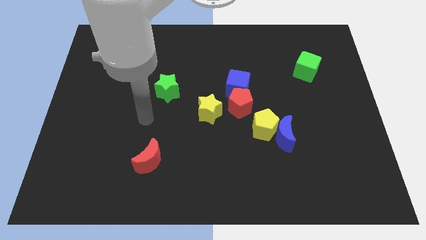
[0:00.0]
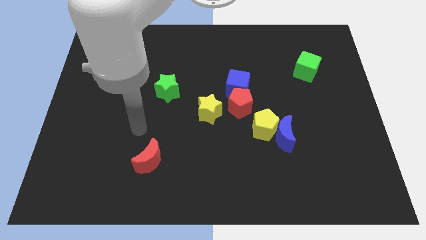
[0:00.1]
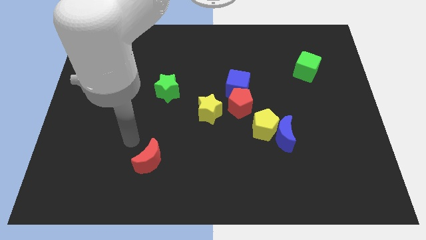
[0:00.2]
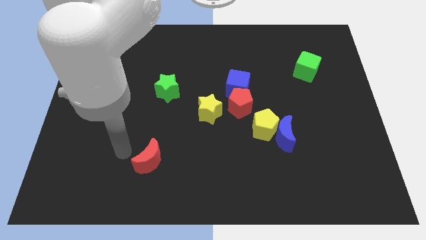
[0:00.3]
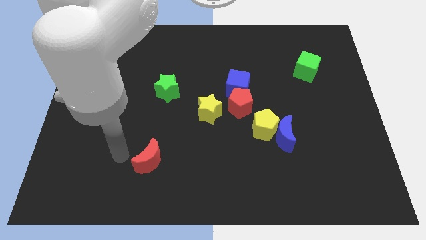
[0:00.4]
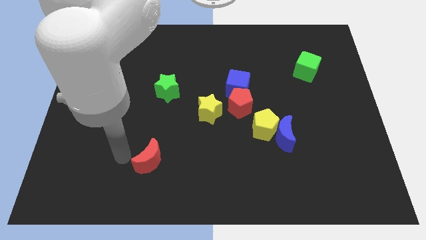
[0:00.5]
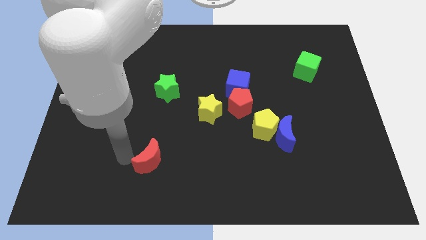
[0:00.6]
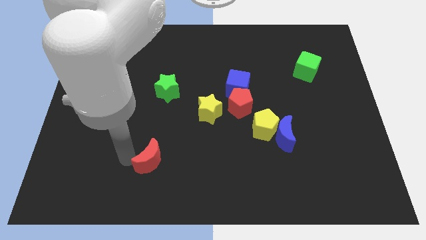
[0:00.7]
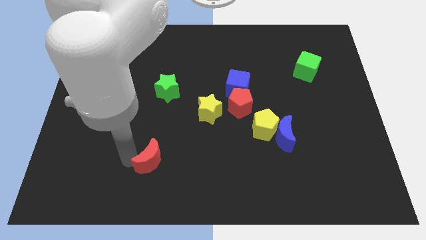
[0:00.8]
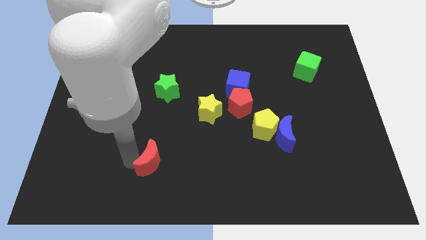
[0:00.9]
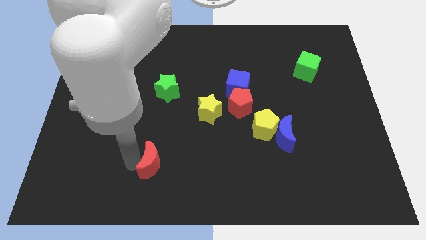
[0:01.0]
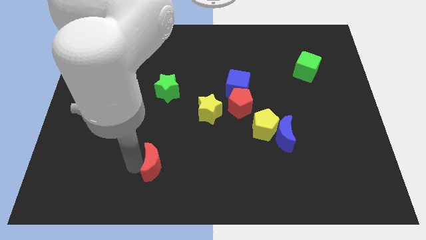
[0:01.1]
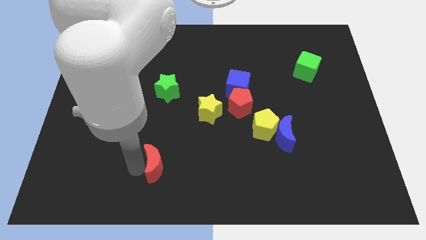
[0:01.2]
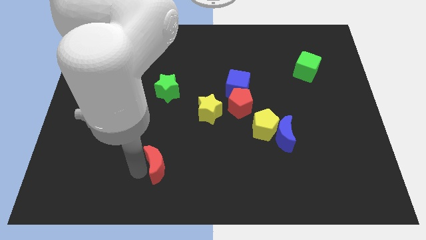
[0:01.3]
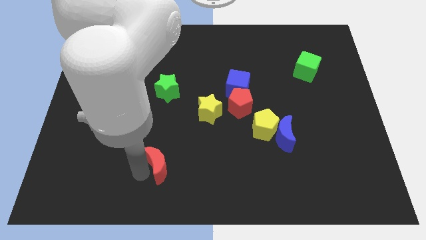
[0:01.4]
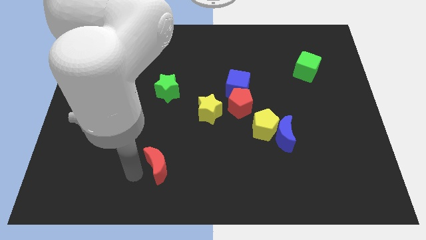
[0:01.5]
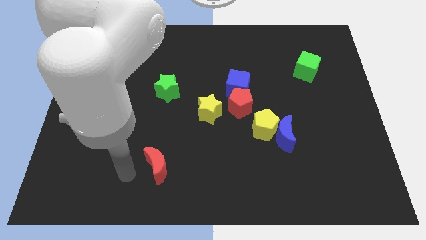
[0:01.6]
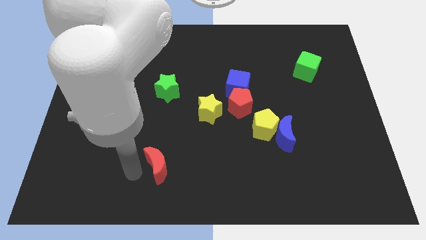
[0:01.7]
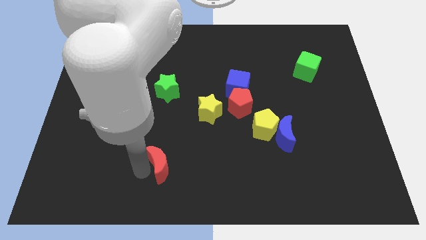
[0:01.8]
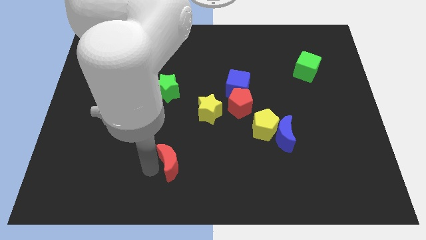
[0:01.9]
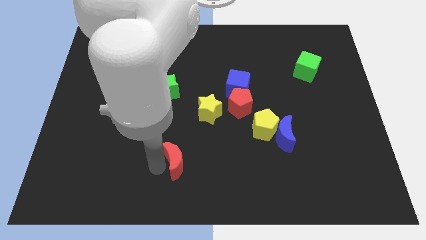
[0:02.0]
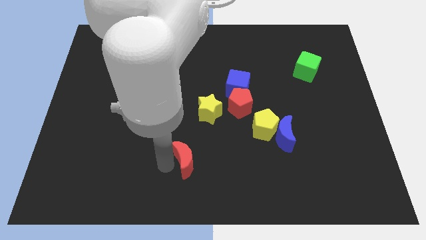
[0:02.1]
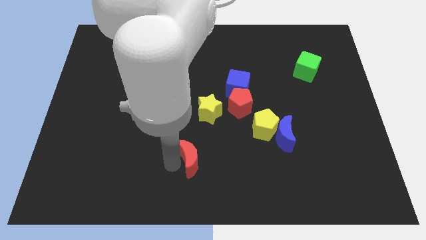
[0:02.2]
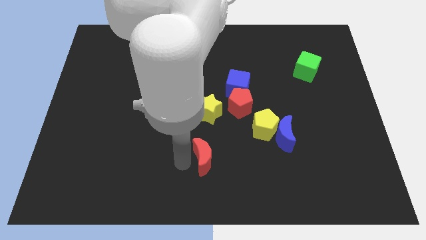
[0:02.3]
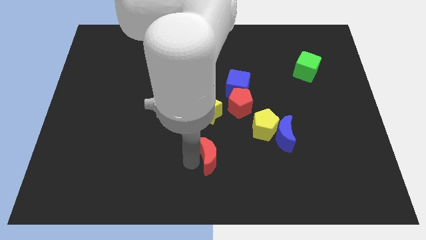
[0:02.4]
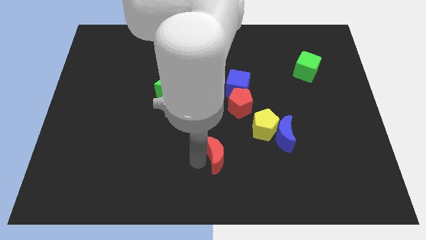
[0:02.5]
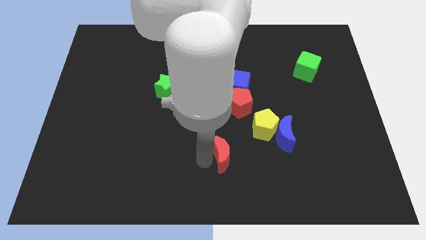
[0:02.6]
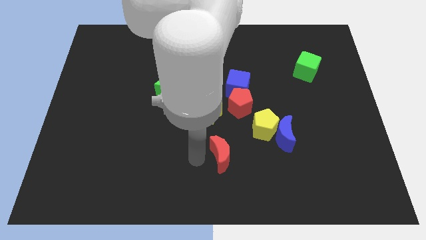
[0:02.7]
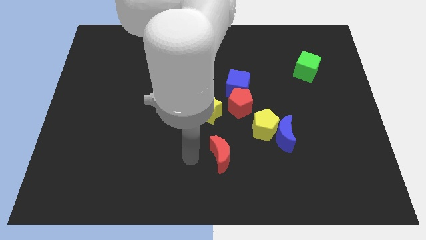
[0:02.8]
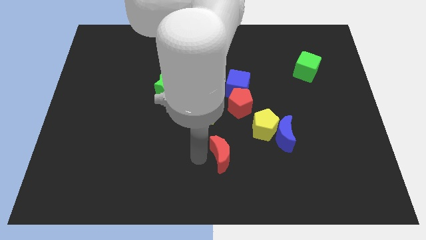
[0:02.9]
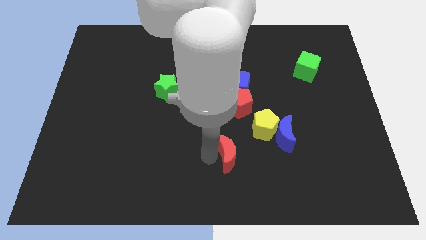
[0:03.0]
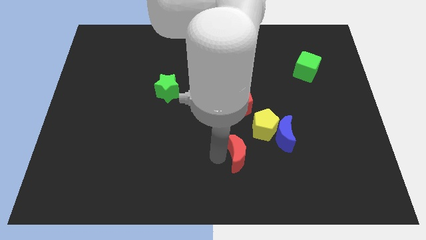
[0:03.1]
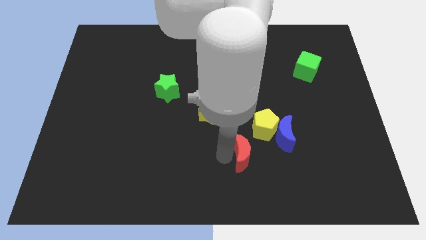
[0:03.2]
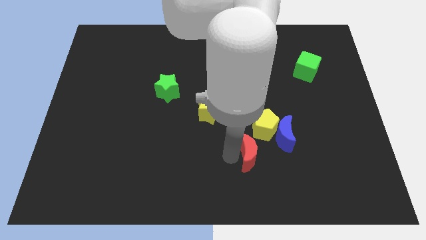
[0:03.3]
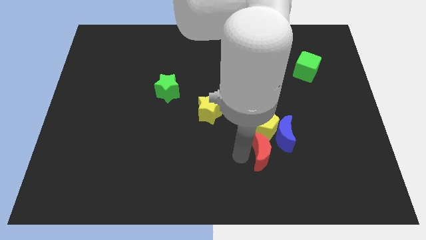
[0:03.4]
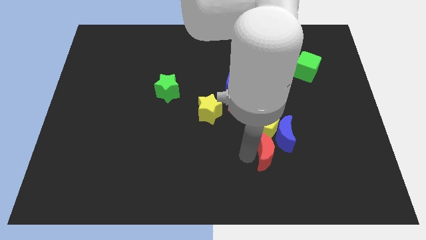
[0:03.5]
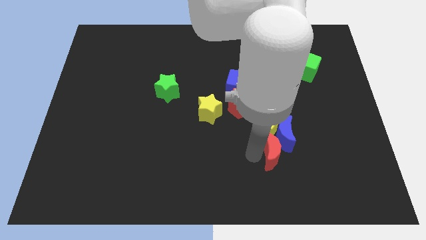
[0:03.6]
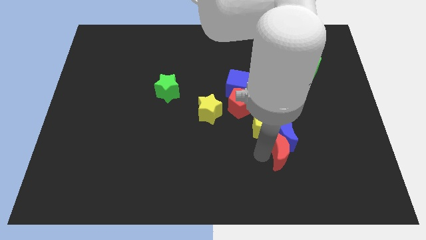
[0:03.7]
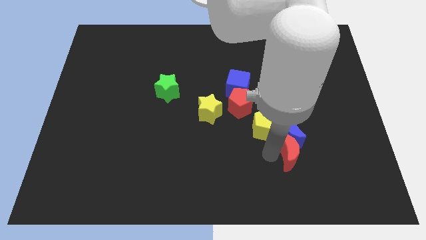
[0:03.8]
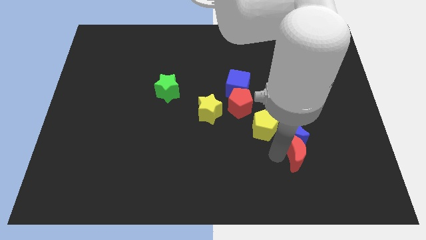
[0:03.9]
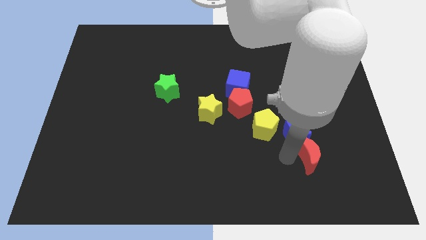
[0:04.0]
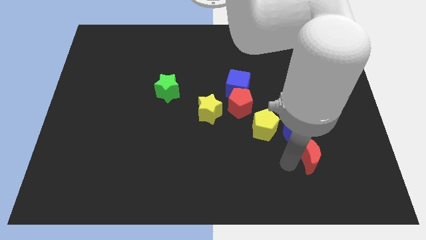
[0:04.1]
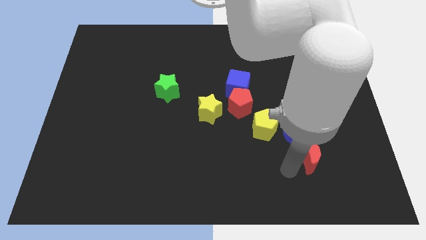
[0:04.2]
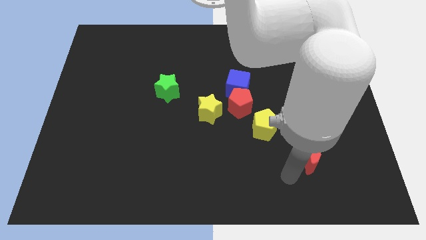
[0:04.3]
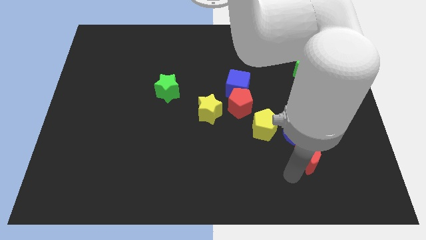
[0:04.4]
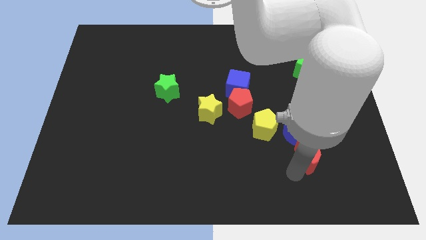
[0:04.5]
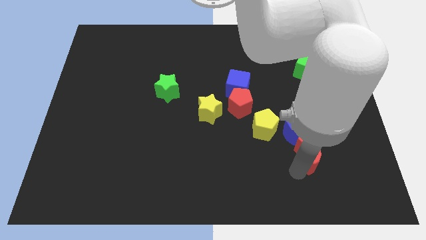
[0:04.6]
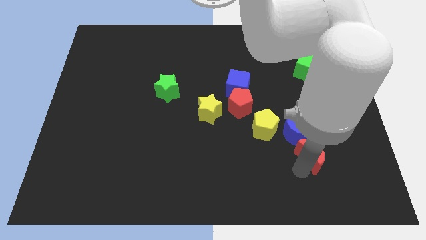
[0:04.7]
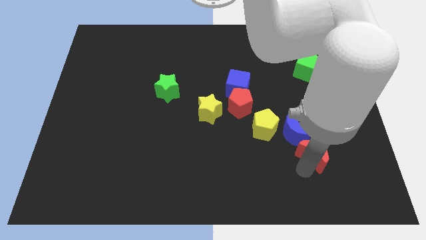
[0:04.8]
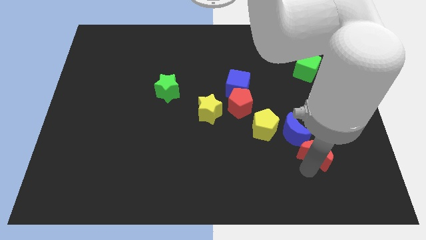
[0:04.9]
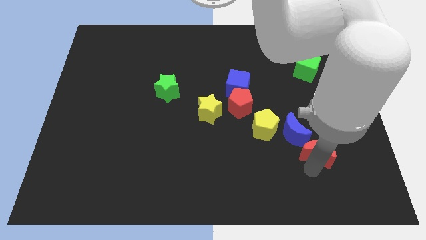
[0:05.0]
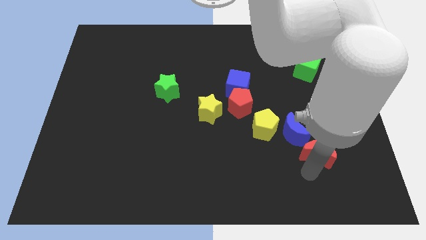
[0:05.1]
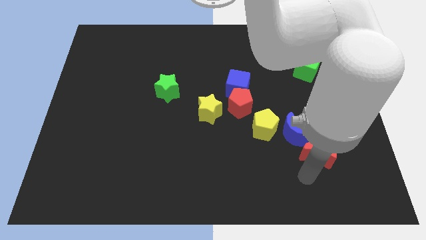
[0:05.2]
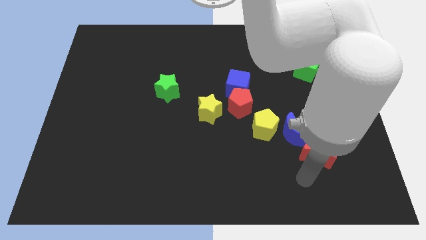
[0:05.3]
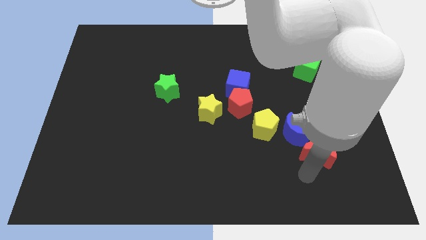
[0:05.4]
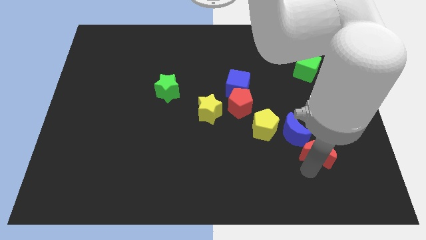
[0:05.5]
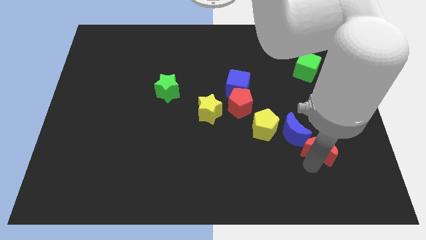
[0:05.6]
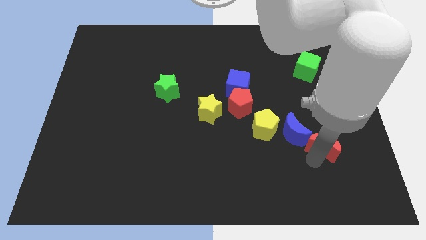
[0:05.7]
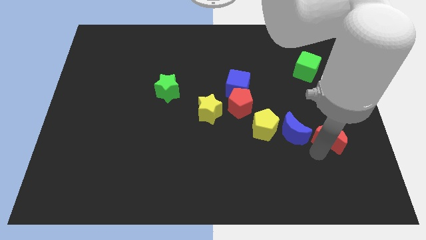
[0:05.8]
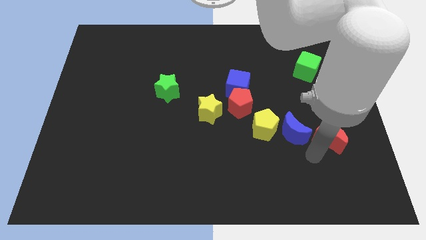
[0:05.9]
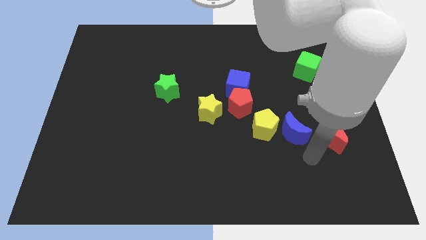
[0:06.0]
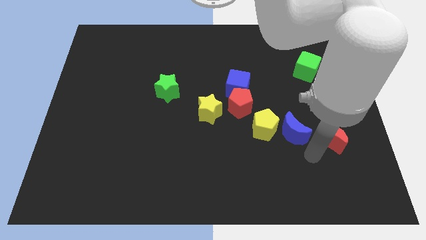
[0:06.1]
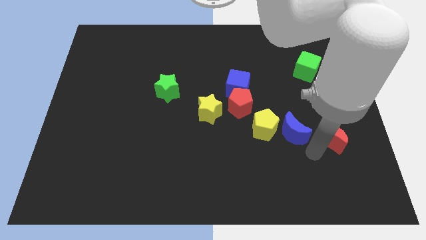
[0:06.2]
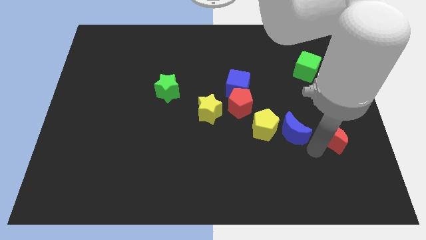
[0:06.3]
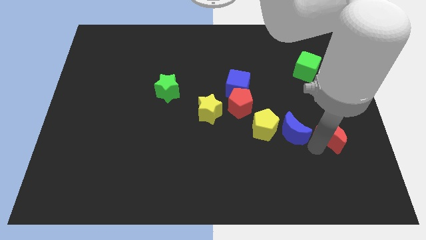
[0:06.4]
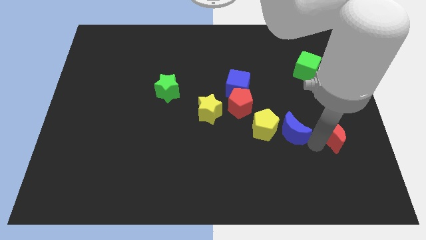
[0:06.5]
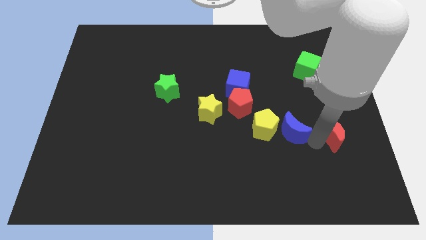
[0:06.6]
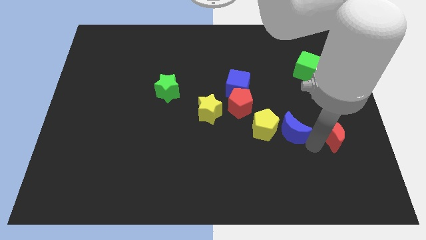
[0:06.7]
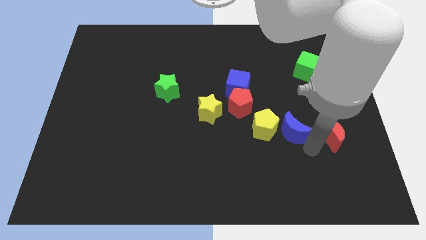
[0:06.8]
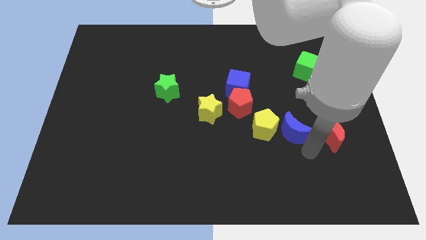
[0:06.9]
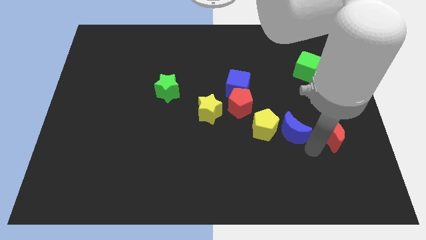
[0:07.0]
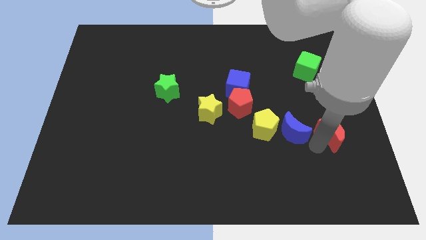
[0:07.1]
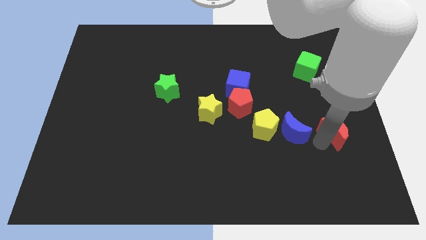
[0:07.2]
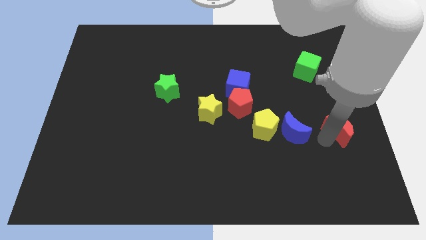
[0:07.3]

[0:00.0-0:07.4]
put the red moon to the right side

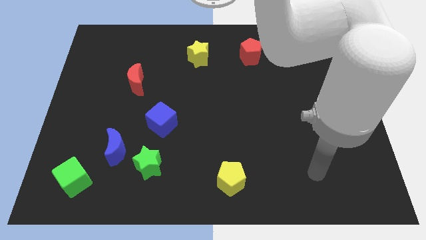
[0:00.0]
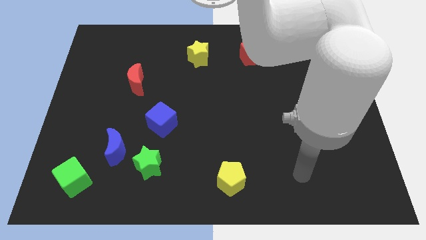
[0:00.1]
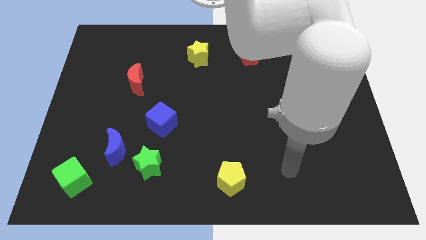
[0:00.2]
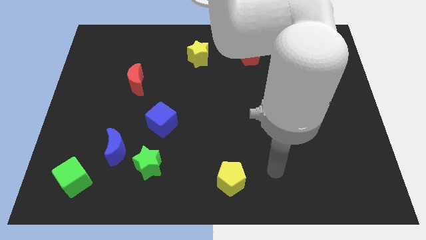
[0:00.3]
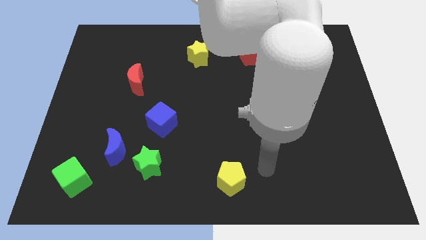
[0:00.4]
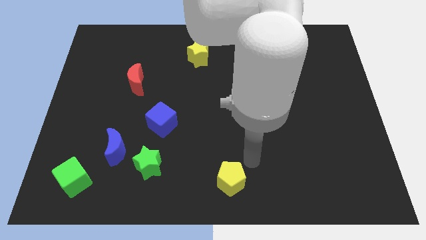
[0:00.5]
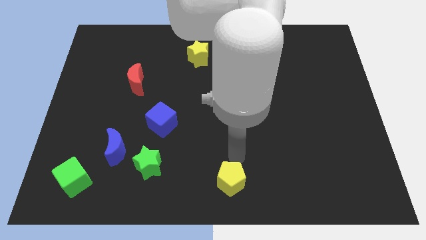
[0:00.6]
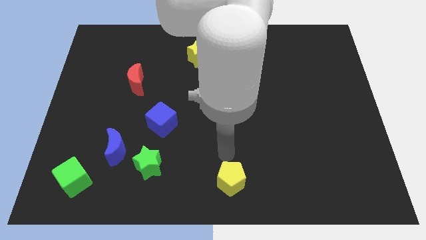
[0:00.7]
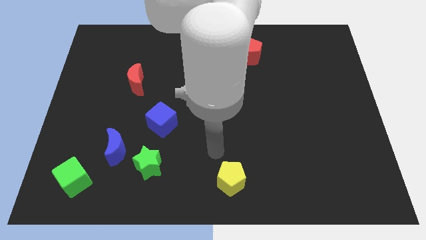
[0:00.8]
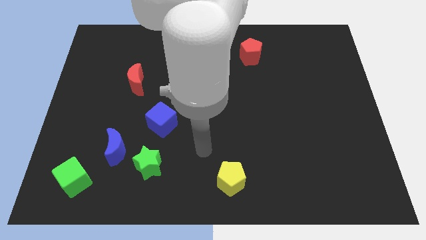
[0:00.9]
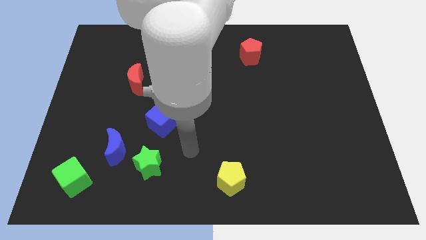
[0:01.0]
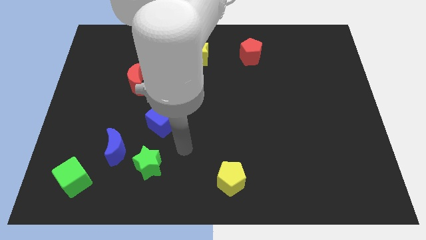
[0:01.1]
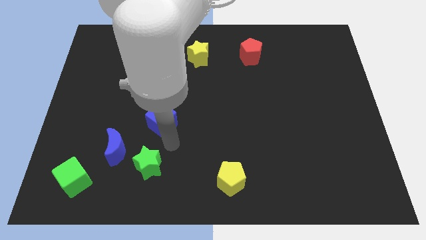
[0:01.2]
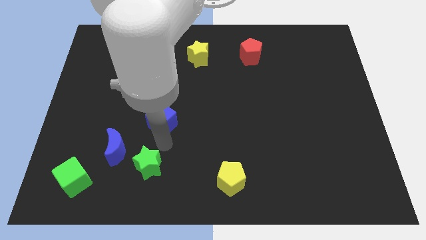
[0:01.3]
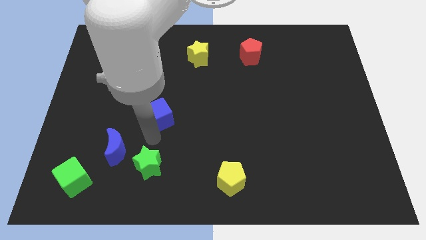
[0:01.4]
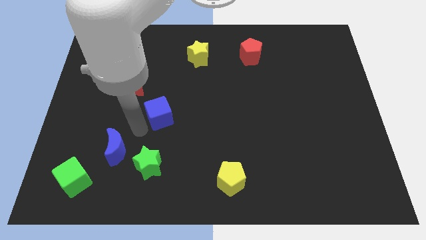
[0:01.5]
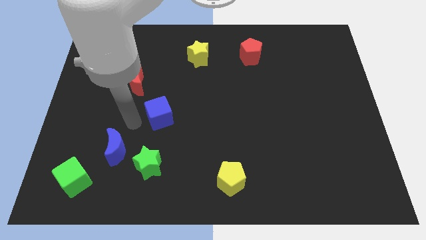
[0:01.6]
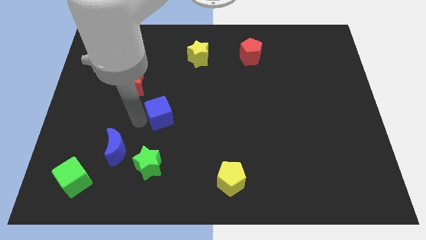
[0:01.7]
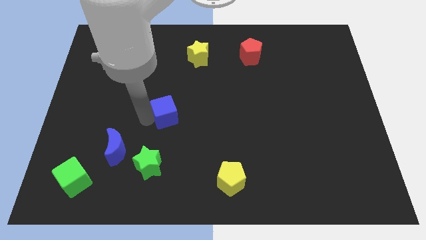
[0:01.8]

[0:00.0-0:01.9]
push the blue cube to the center
